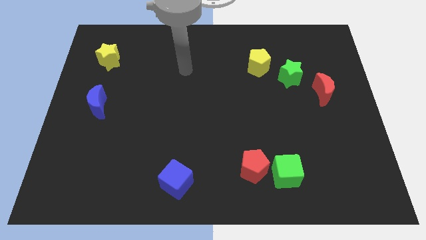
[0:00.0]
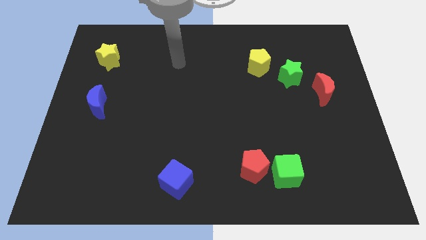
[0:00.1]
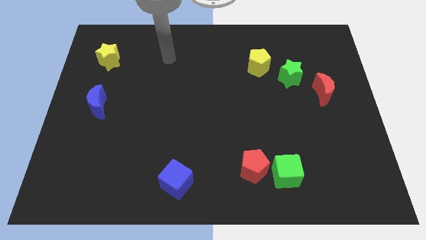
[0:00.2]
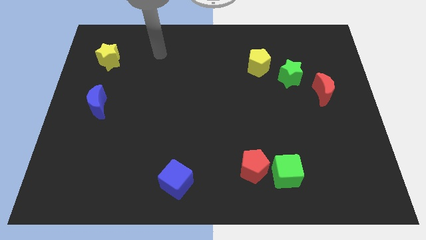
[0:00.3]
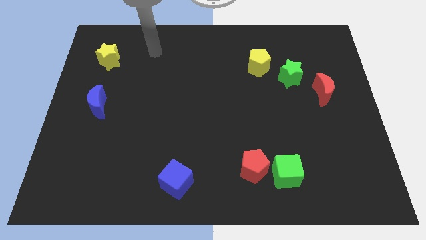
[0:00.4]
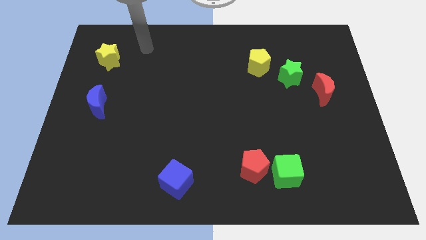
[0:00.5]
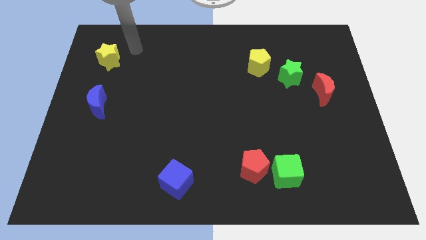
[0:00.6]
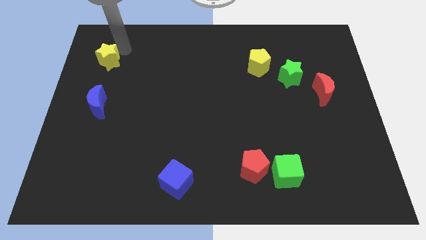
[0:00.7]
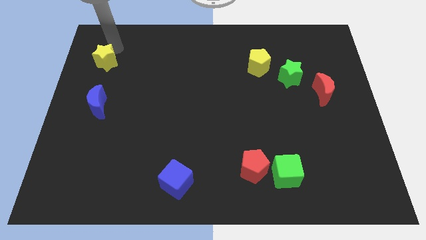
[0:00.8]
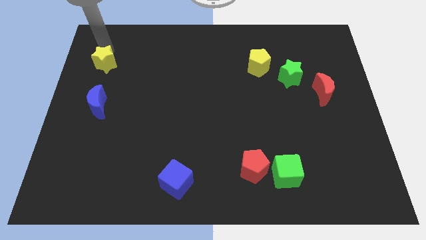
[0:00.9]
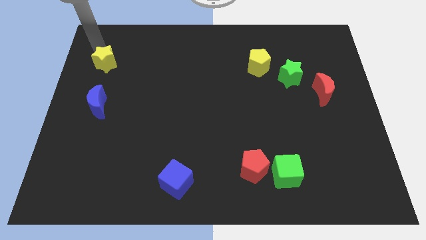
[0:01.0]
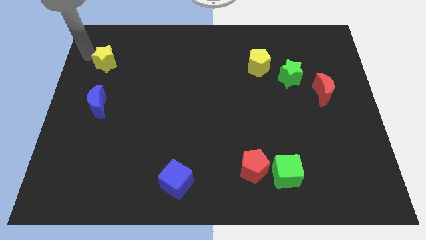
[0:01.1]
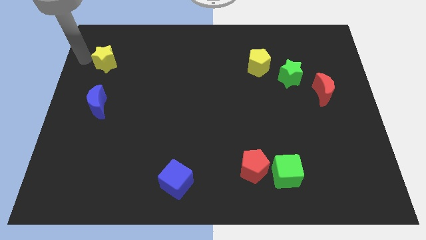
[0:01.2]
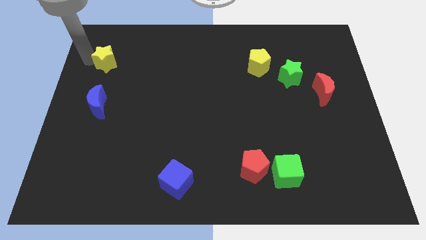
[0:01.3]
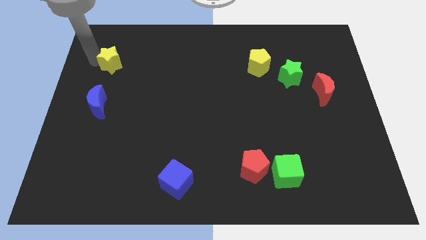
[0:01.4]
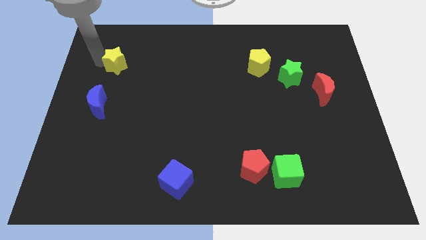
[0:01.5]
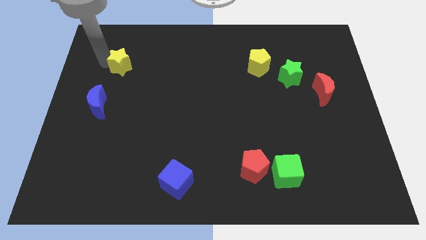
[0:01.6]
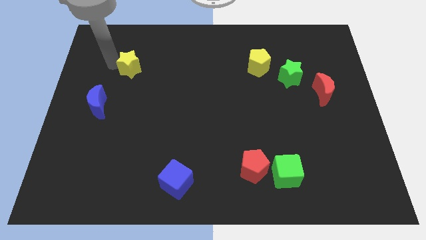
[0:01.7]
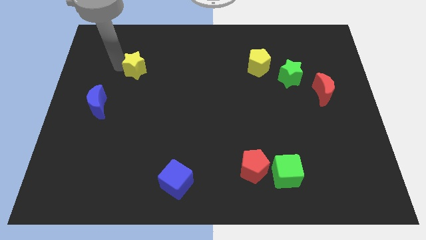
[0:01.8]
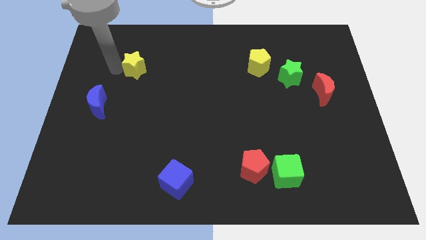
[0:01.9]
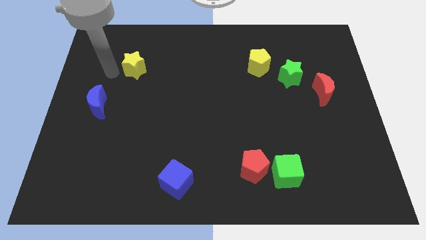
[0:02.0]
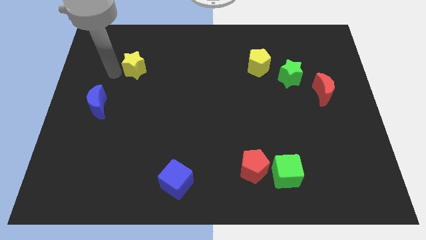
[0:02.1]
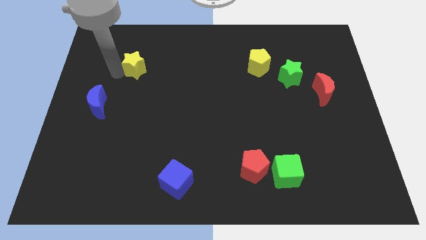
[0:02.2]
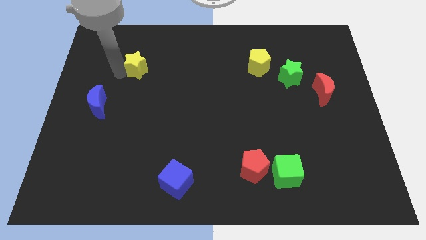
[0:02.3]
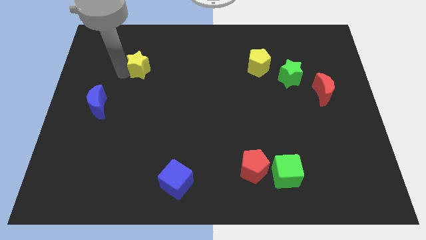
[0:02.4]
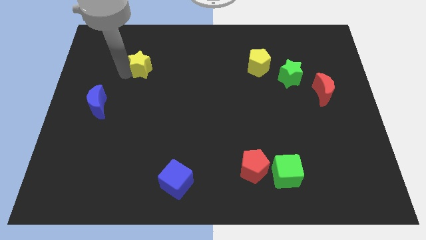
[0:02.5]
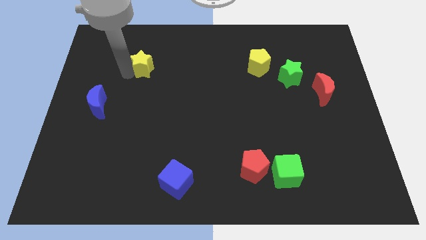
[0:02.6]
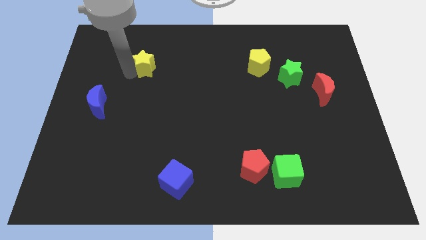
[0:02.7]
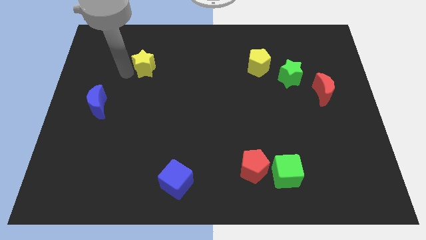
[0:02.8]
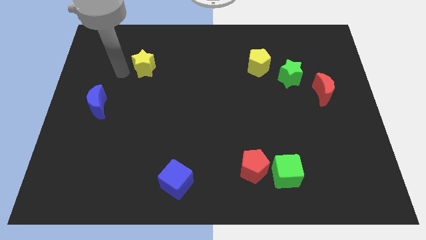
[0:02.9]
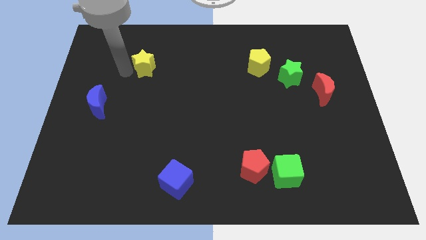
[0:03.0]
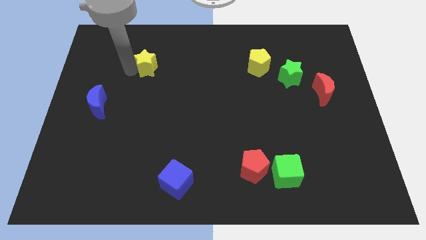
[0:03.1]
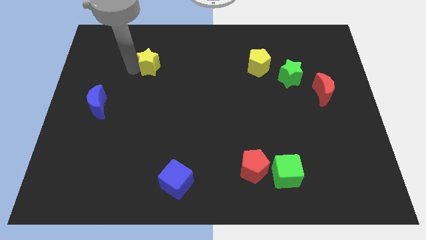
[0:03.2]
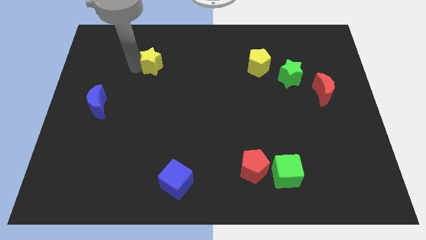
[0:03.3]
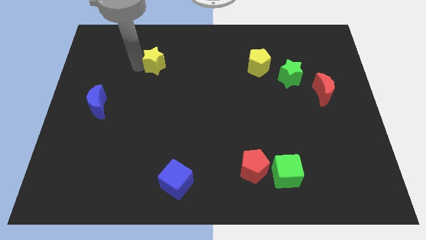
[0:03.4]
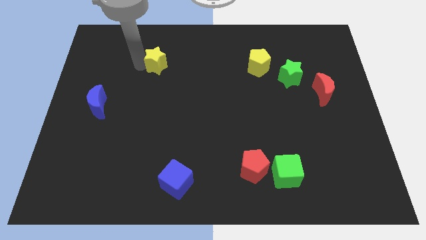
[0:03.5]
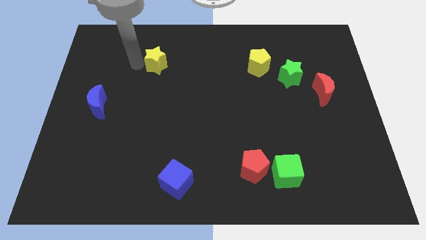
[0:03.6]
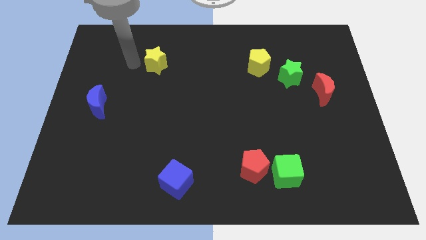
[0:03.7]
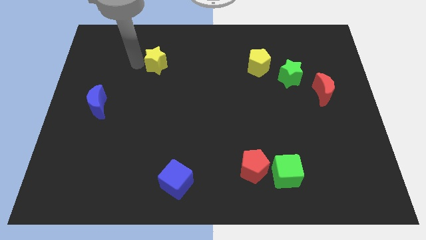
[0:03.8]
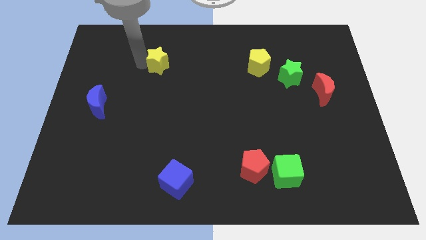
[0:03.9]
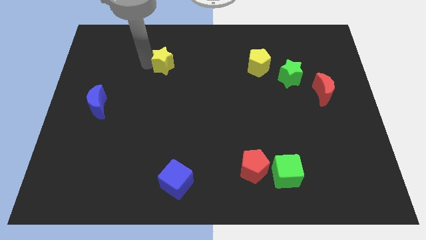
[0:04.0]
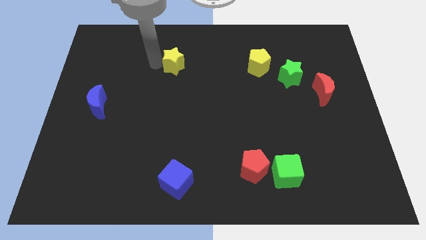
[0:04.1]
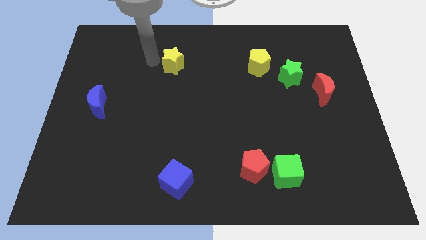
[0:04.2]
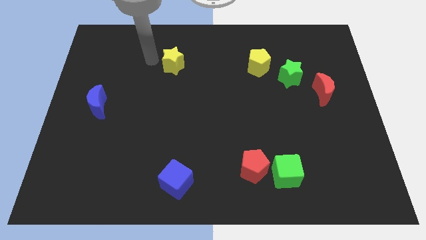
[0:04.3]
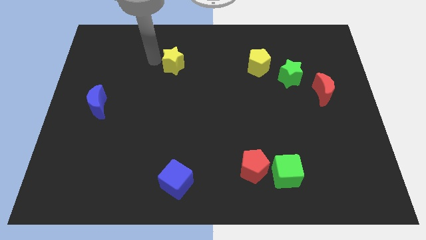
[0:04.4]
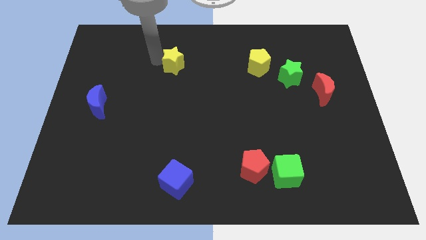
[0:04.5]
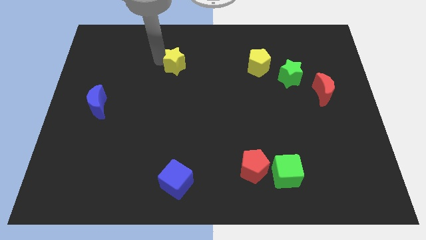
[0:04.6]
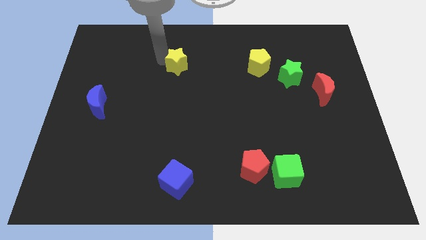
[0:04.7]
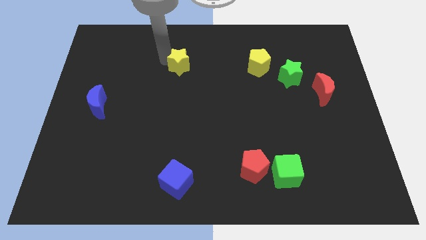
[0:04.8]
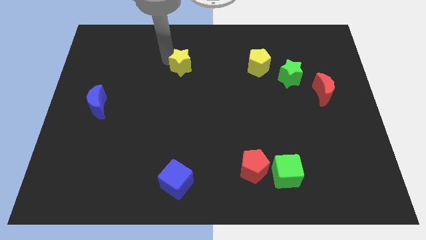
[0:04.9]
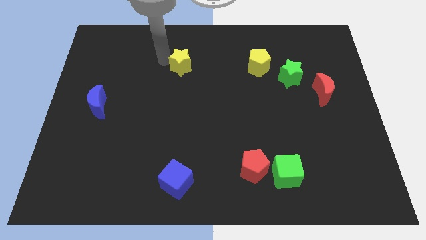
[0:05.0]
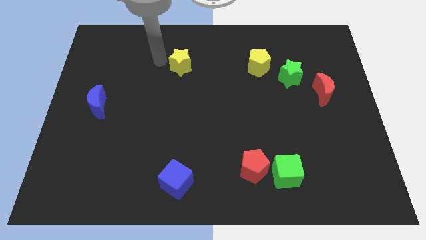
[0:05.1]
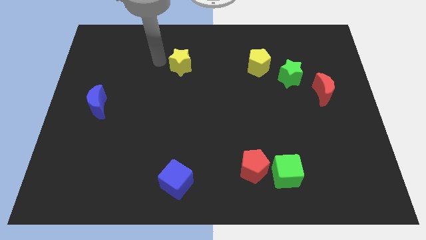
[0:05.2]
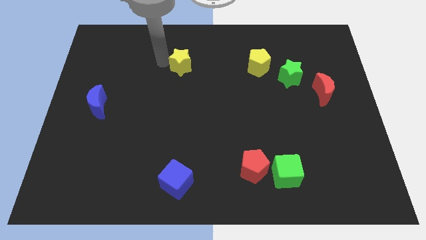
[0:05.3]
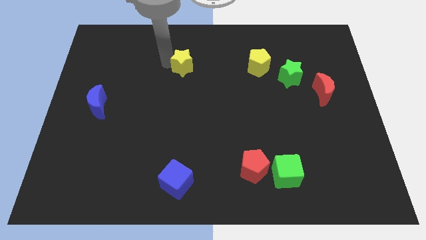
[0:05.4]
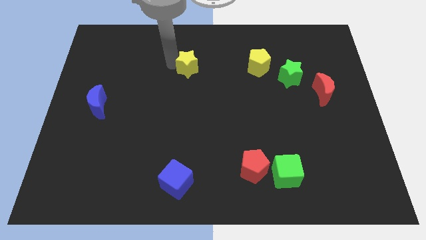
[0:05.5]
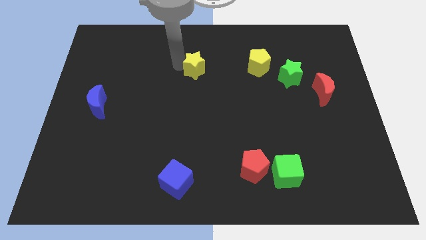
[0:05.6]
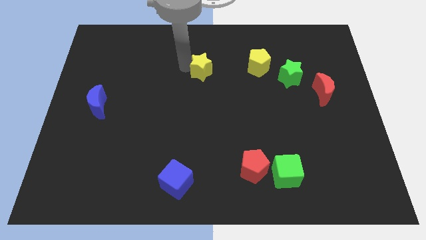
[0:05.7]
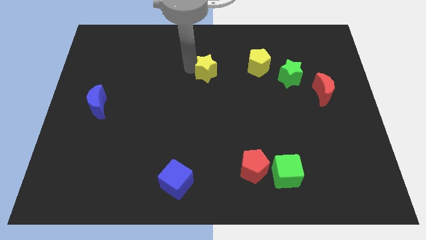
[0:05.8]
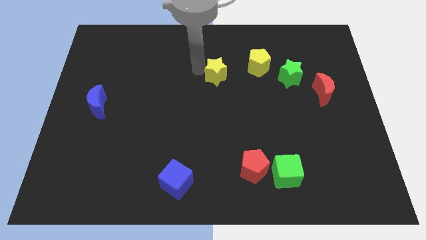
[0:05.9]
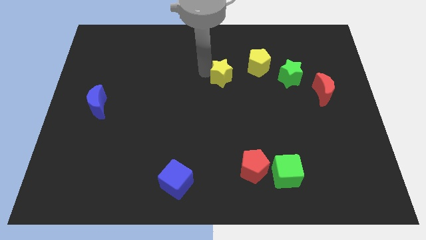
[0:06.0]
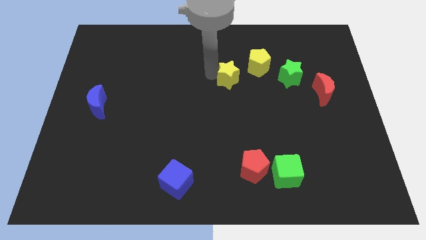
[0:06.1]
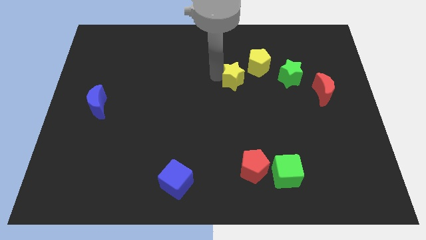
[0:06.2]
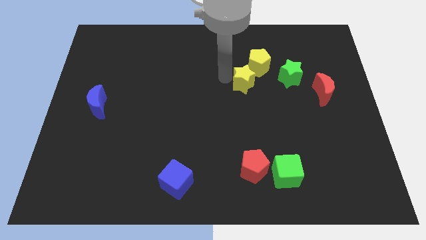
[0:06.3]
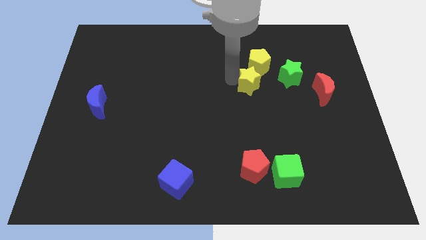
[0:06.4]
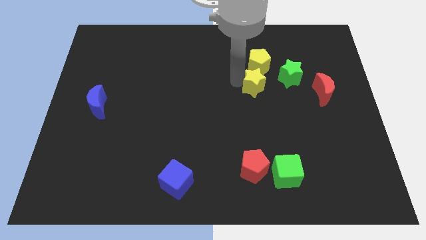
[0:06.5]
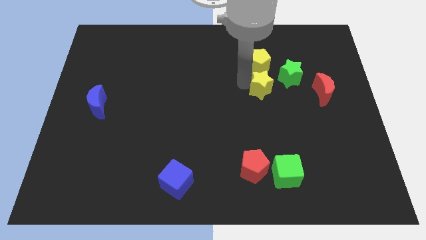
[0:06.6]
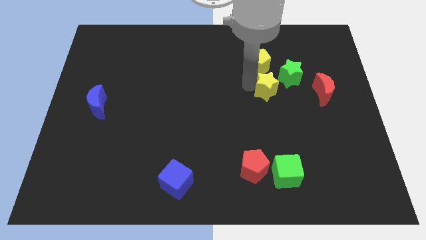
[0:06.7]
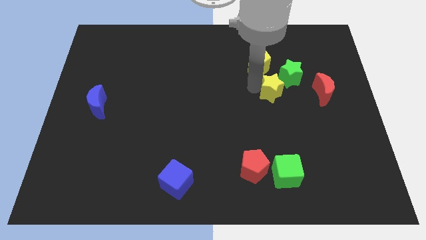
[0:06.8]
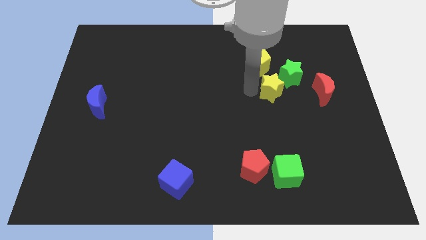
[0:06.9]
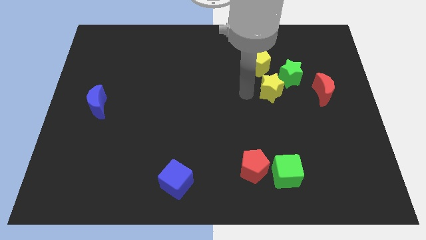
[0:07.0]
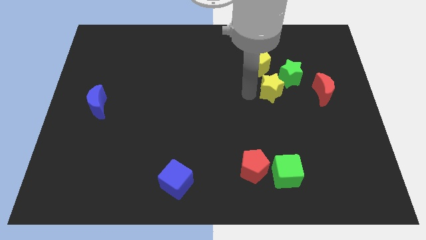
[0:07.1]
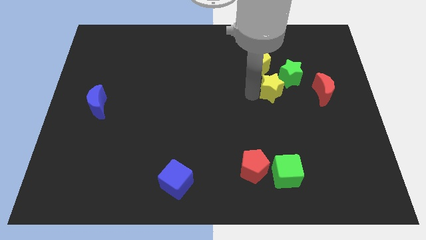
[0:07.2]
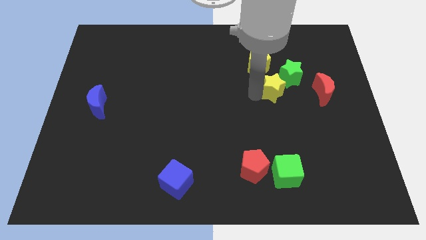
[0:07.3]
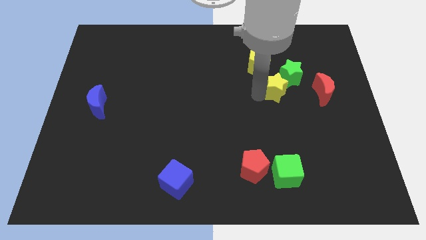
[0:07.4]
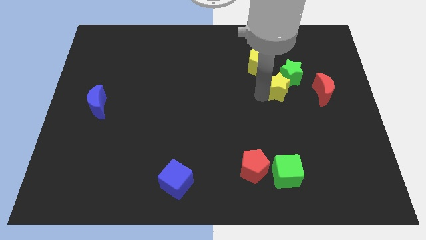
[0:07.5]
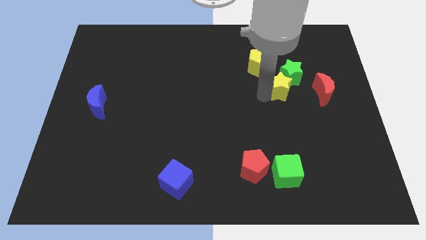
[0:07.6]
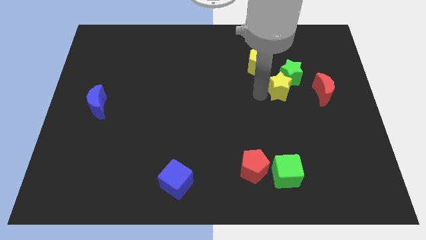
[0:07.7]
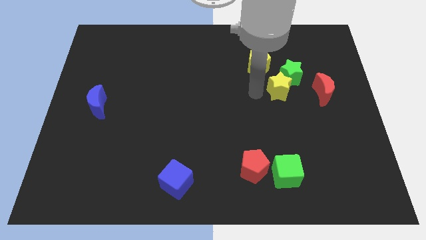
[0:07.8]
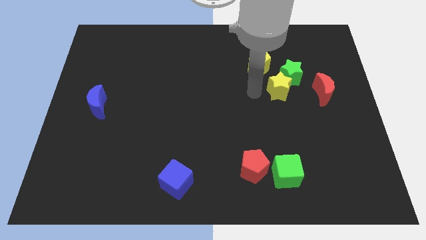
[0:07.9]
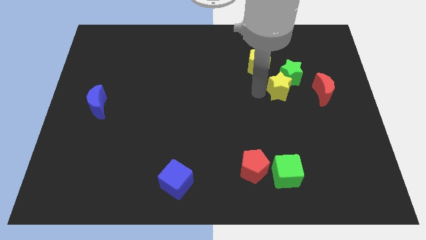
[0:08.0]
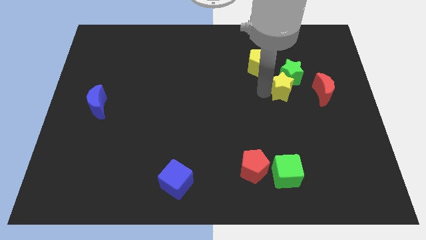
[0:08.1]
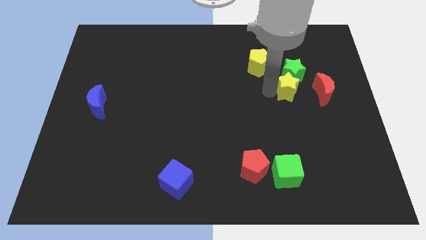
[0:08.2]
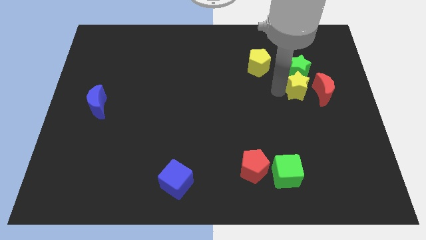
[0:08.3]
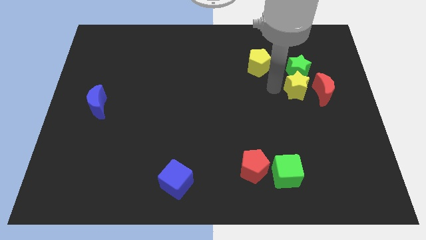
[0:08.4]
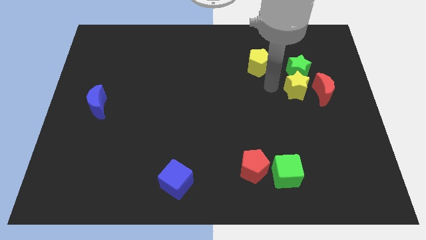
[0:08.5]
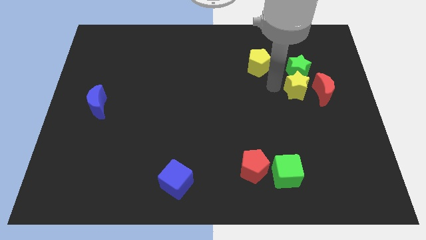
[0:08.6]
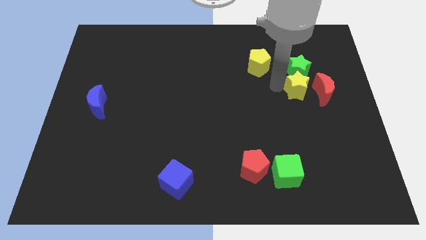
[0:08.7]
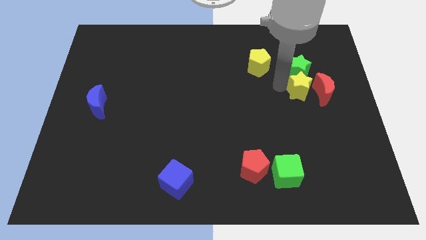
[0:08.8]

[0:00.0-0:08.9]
put the yellow star to the red moon
